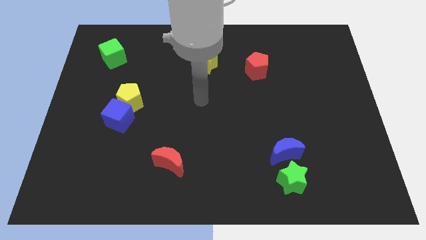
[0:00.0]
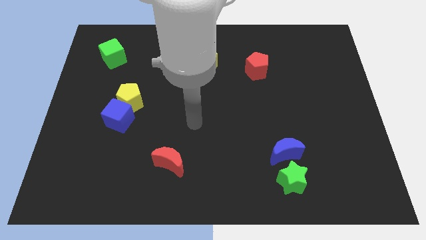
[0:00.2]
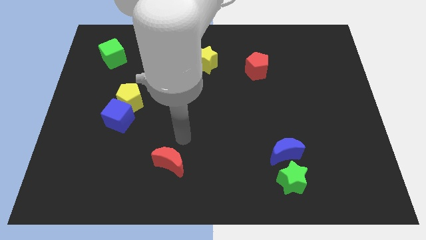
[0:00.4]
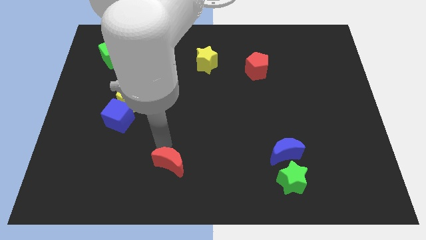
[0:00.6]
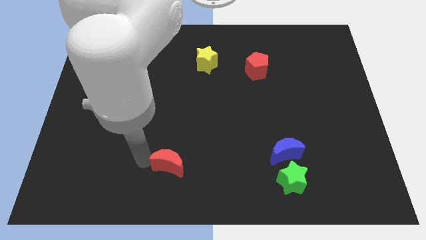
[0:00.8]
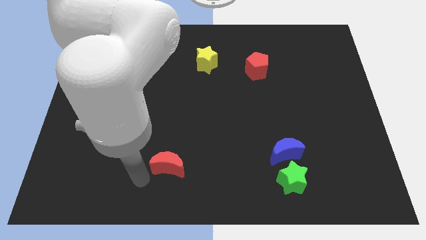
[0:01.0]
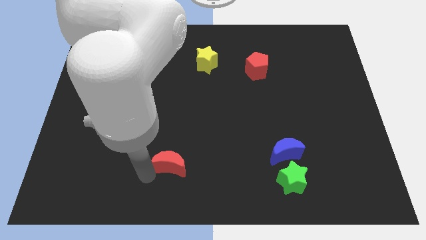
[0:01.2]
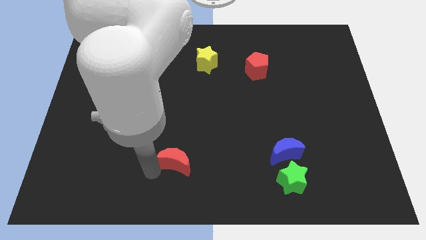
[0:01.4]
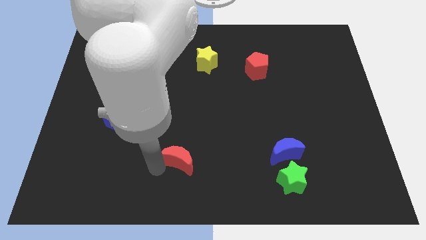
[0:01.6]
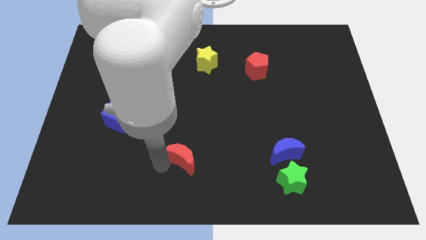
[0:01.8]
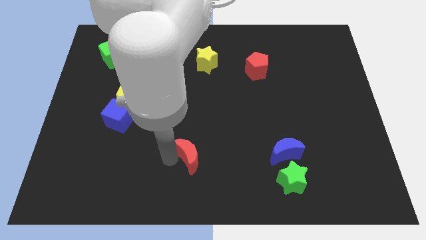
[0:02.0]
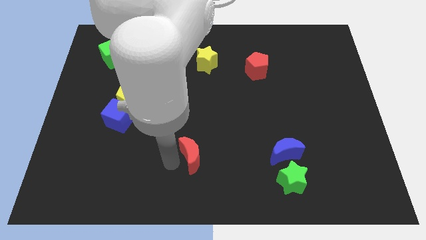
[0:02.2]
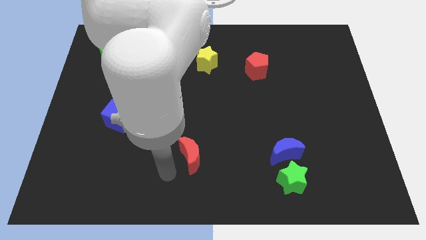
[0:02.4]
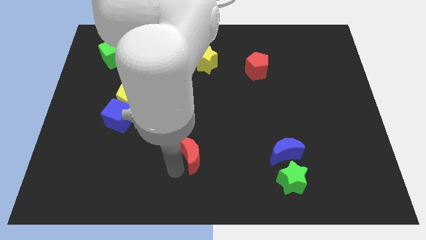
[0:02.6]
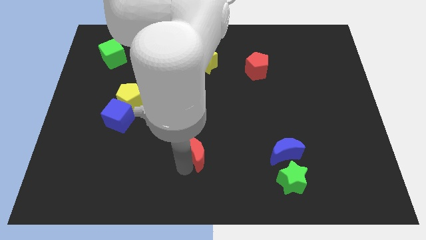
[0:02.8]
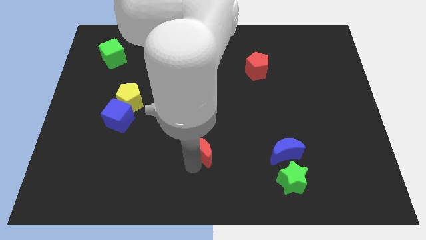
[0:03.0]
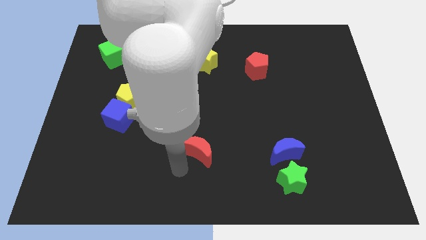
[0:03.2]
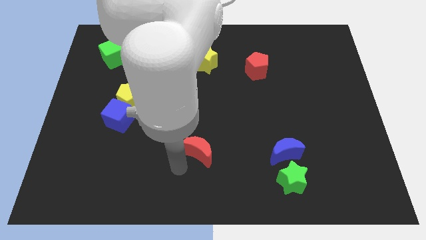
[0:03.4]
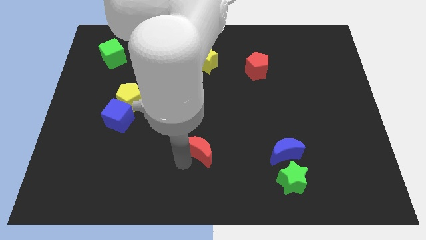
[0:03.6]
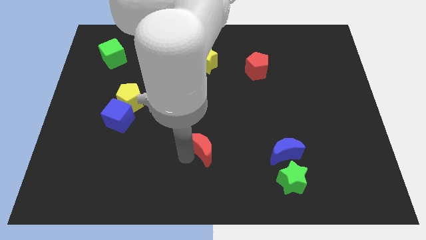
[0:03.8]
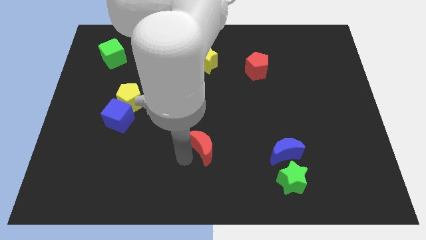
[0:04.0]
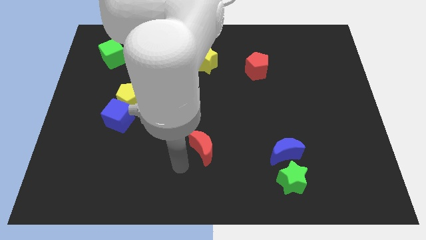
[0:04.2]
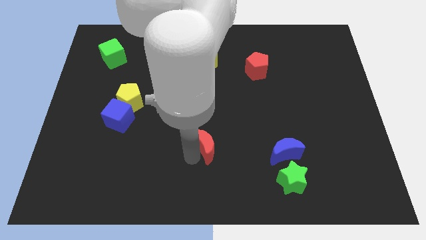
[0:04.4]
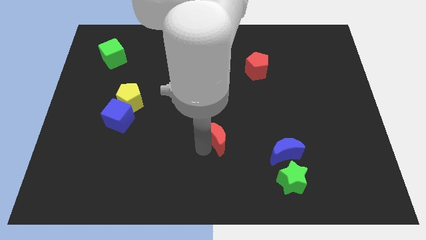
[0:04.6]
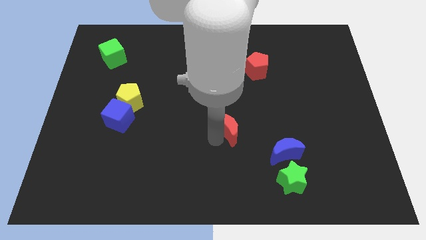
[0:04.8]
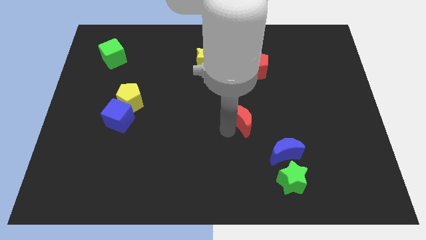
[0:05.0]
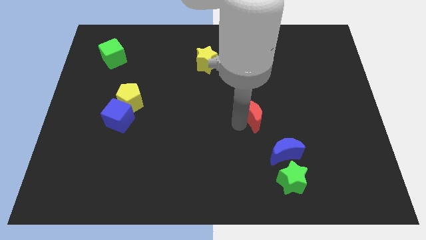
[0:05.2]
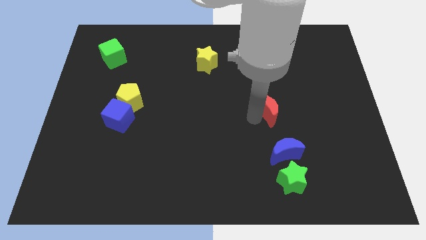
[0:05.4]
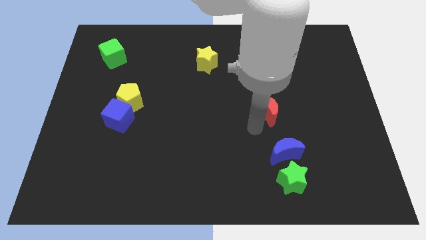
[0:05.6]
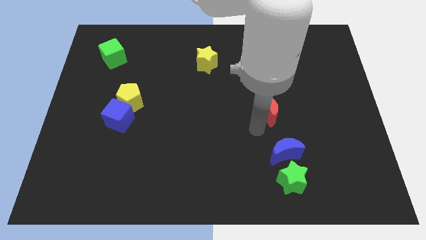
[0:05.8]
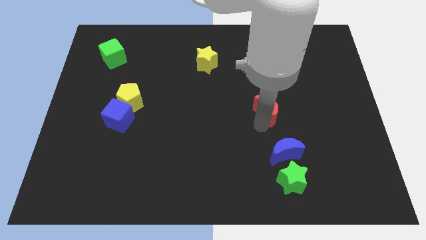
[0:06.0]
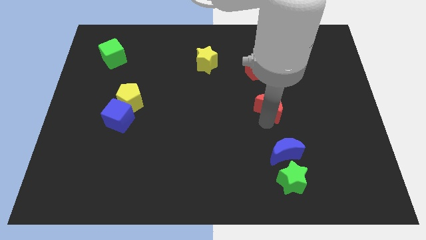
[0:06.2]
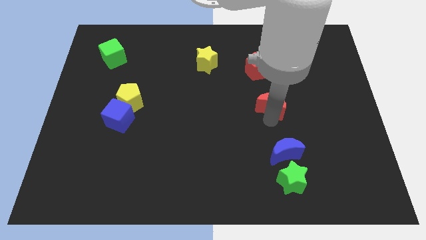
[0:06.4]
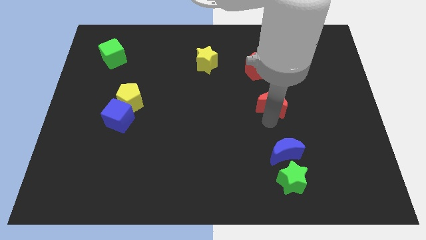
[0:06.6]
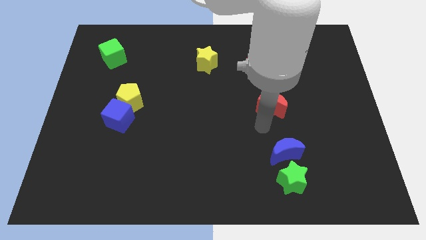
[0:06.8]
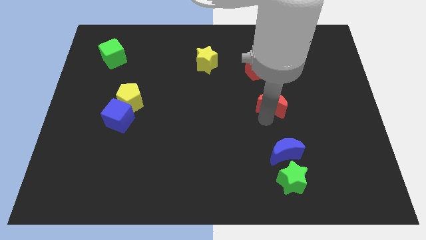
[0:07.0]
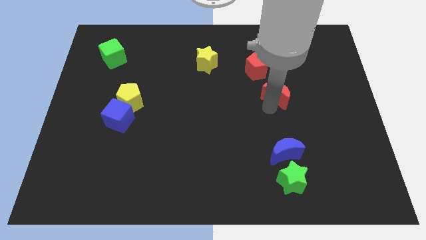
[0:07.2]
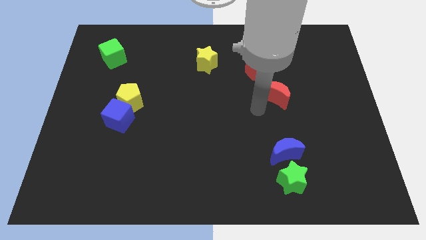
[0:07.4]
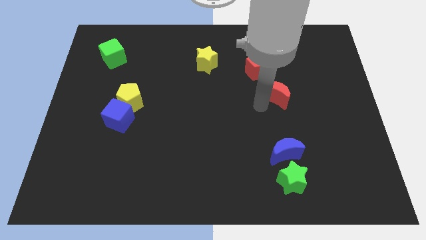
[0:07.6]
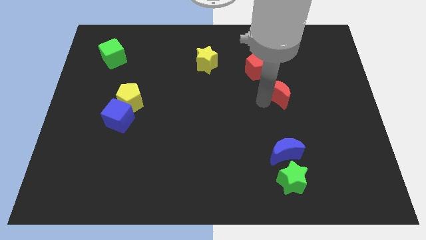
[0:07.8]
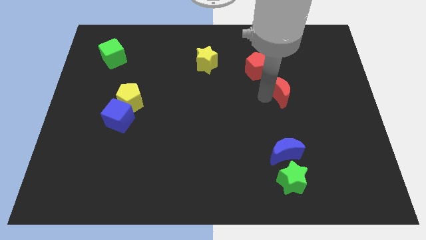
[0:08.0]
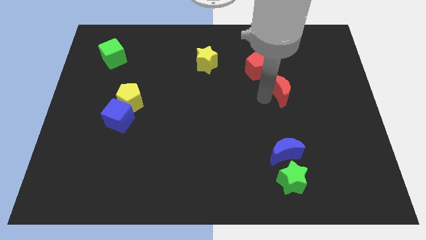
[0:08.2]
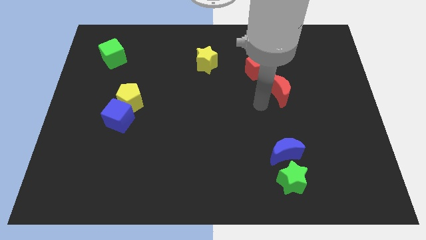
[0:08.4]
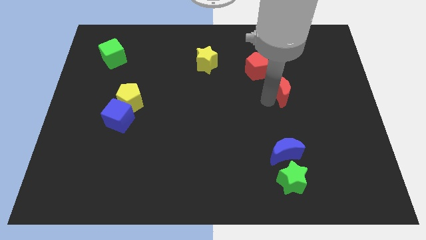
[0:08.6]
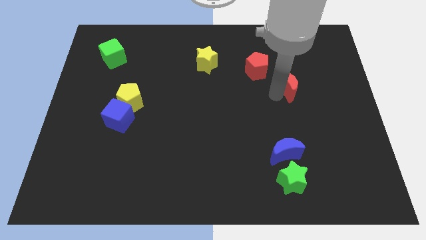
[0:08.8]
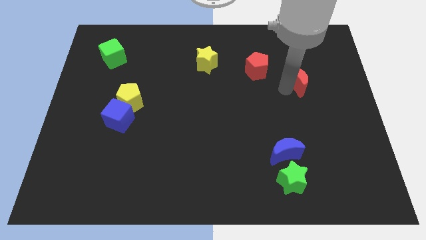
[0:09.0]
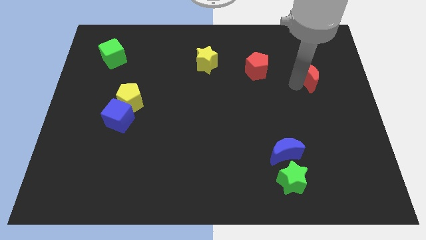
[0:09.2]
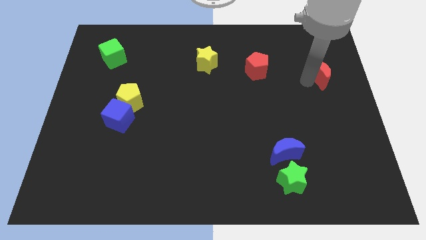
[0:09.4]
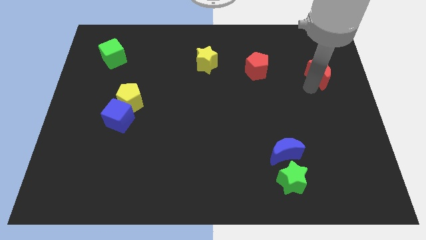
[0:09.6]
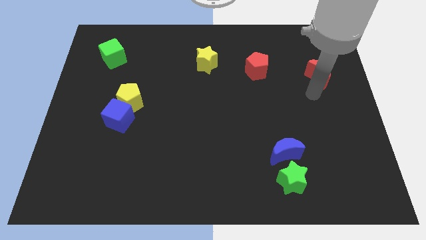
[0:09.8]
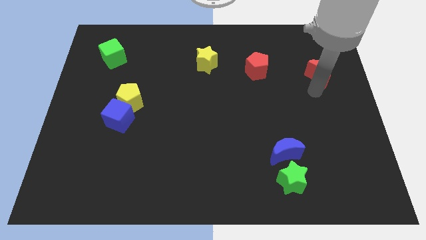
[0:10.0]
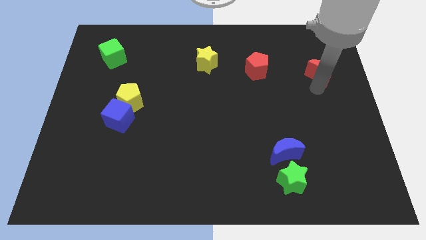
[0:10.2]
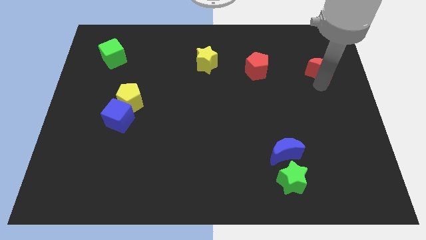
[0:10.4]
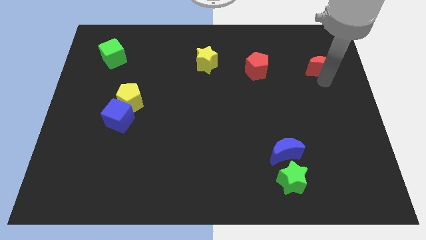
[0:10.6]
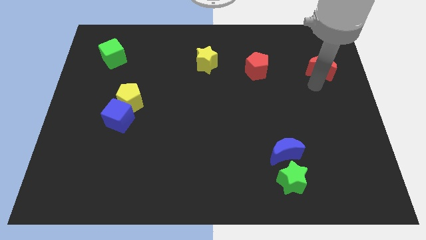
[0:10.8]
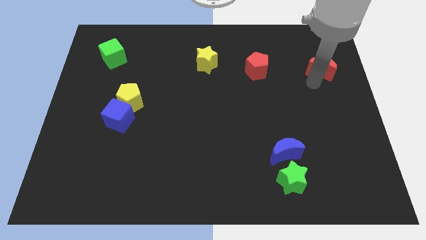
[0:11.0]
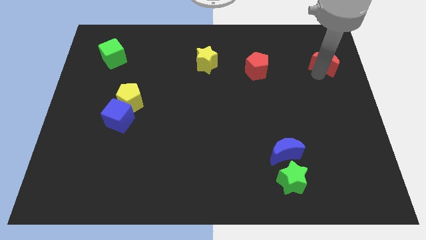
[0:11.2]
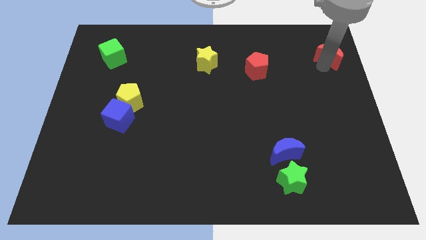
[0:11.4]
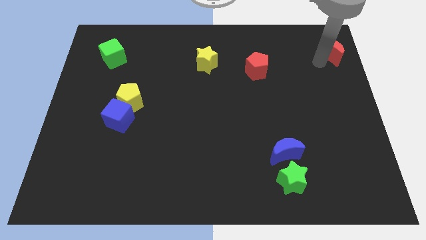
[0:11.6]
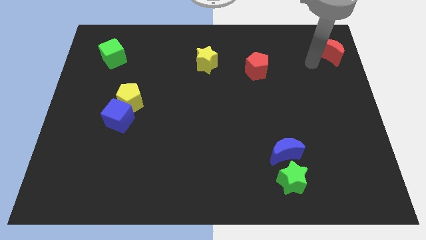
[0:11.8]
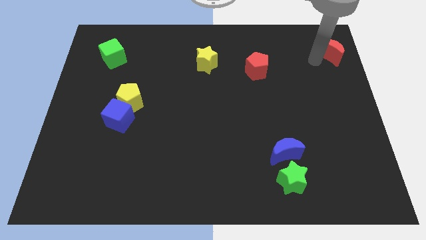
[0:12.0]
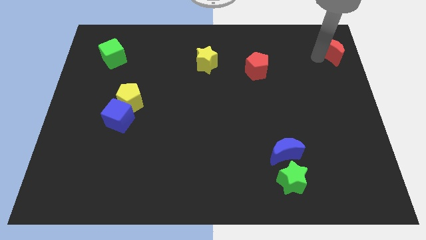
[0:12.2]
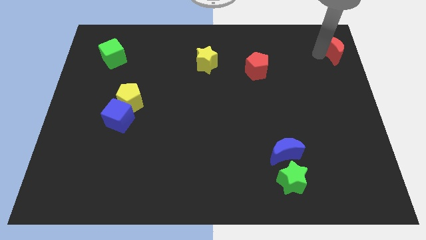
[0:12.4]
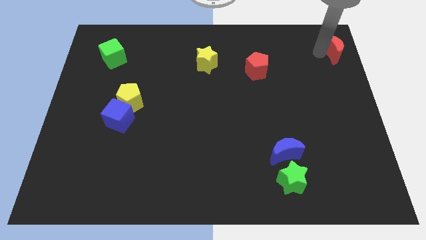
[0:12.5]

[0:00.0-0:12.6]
move the red moon to the top right
